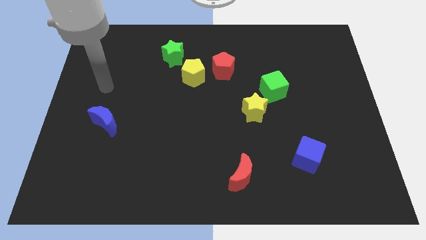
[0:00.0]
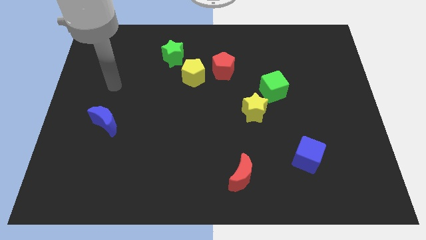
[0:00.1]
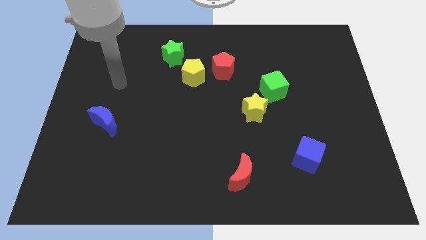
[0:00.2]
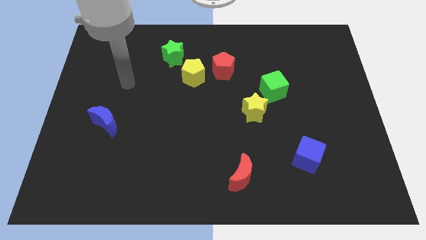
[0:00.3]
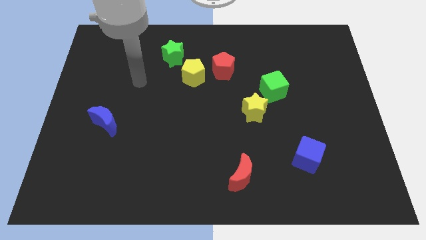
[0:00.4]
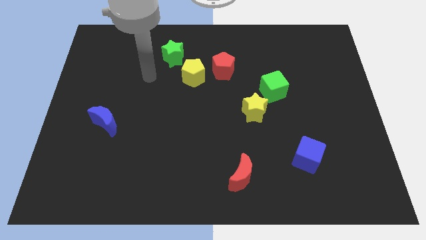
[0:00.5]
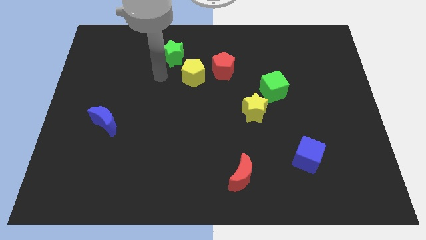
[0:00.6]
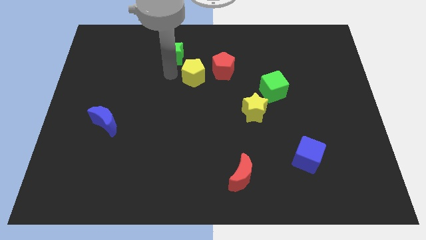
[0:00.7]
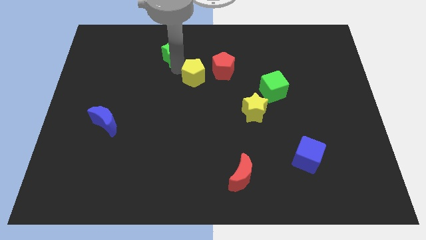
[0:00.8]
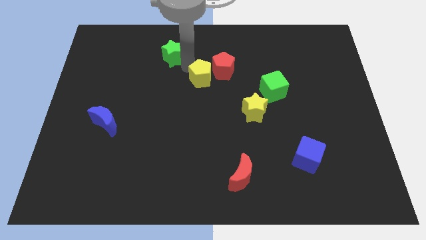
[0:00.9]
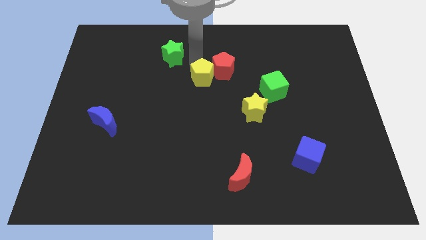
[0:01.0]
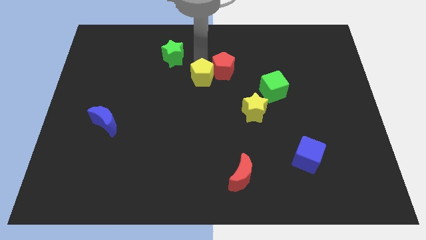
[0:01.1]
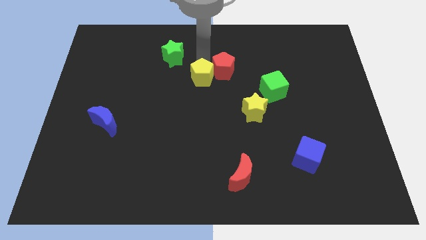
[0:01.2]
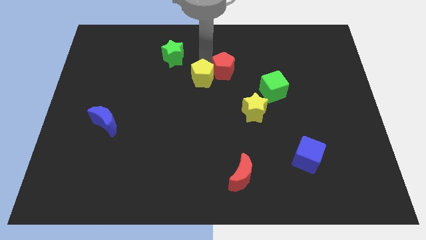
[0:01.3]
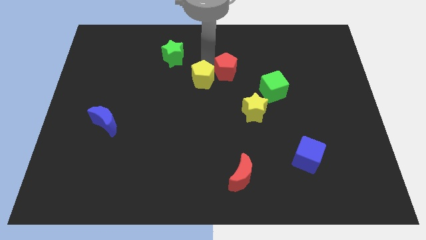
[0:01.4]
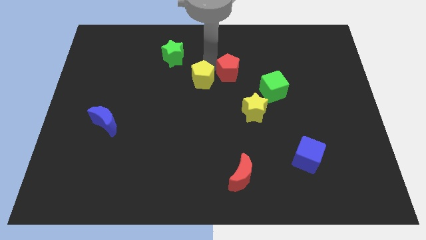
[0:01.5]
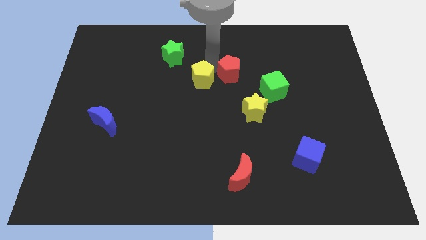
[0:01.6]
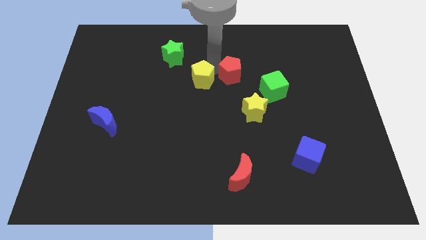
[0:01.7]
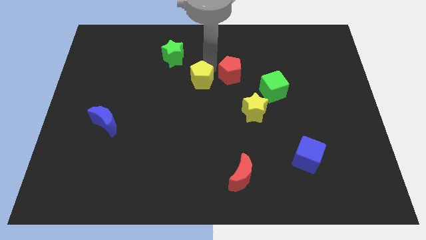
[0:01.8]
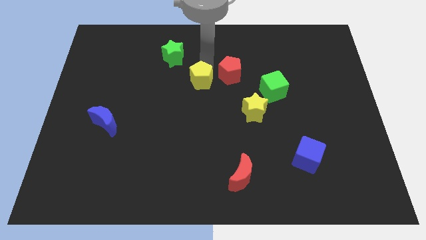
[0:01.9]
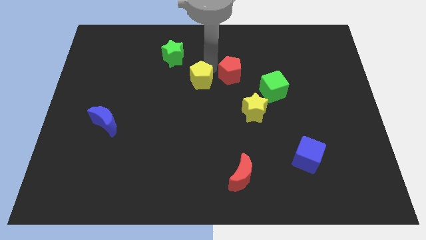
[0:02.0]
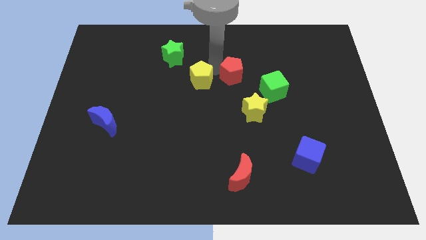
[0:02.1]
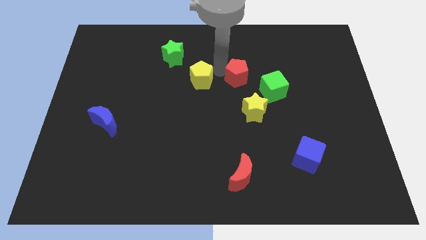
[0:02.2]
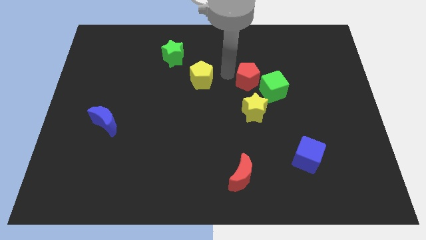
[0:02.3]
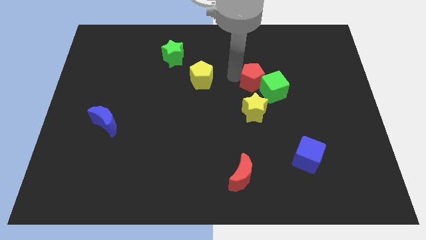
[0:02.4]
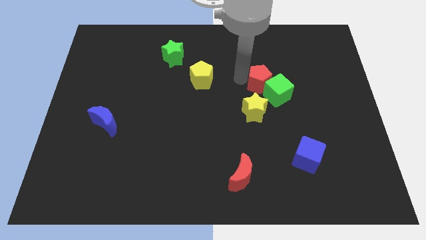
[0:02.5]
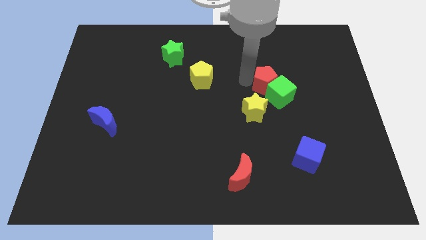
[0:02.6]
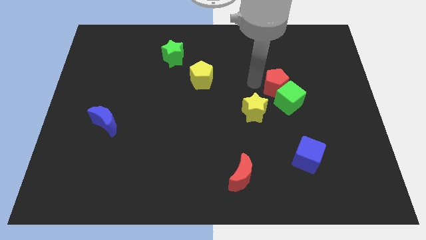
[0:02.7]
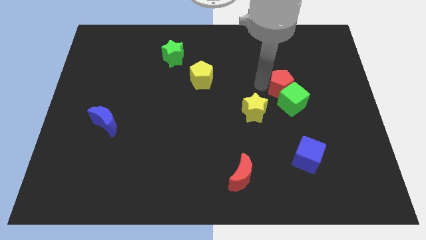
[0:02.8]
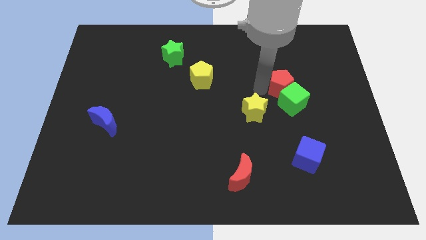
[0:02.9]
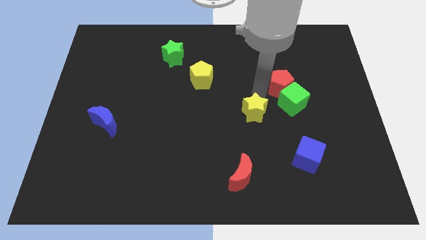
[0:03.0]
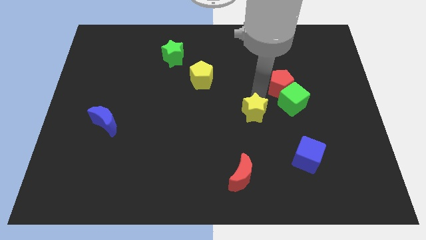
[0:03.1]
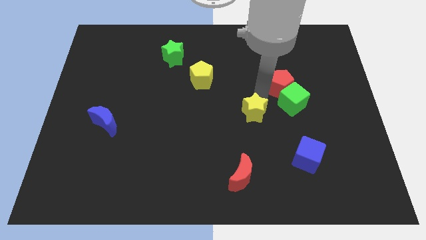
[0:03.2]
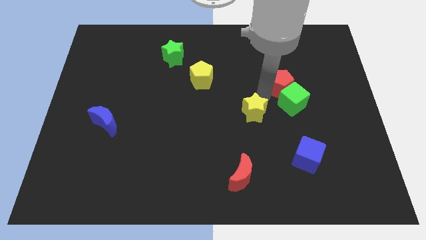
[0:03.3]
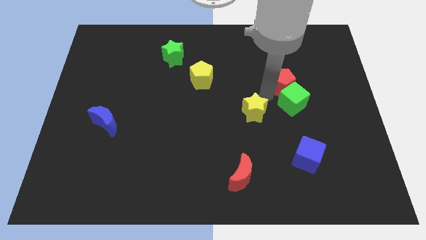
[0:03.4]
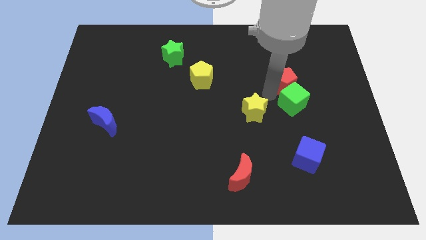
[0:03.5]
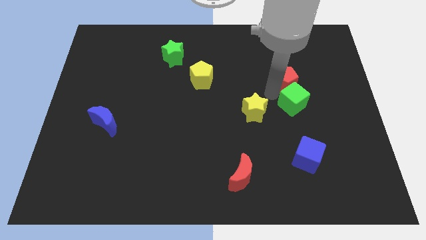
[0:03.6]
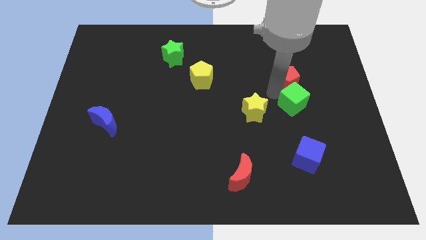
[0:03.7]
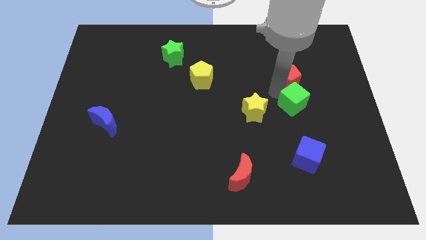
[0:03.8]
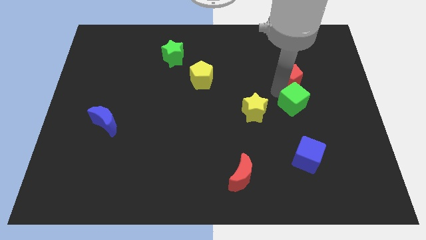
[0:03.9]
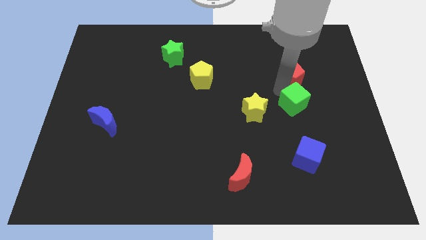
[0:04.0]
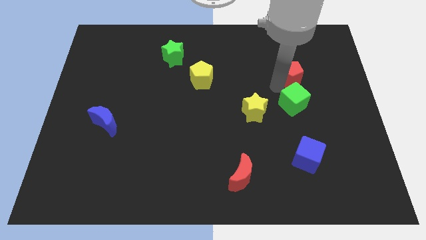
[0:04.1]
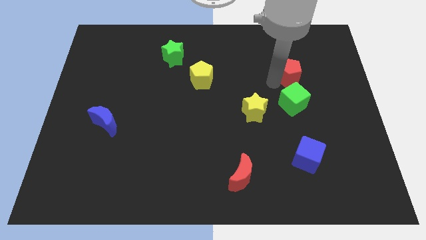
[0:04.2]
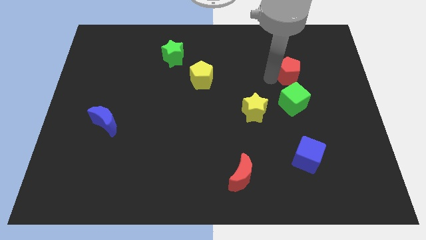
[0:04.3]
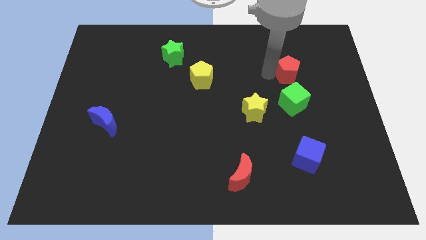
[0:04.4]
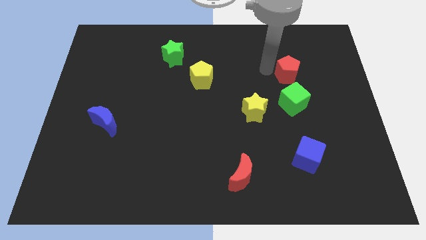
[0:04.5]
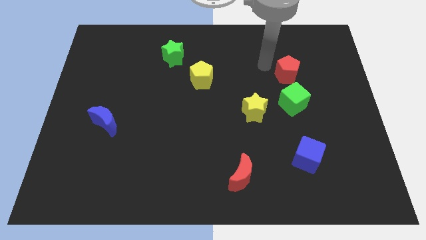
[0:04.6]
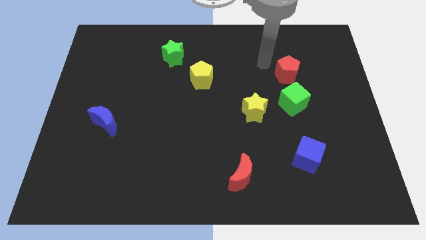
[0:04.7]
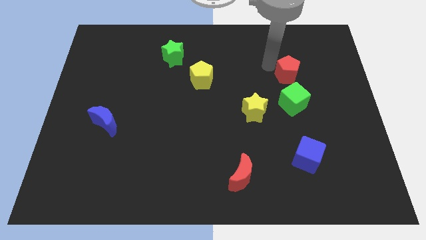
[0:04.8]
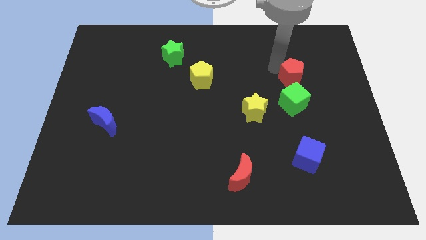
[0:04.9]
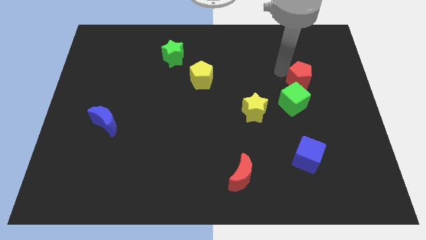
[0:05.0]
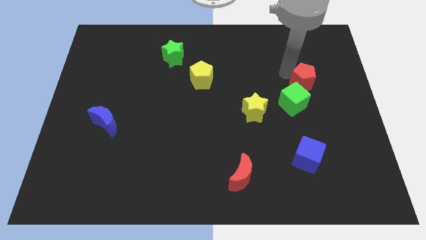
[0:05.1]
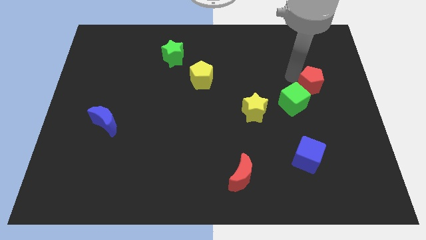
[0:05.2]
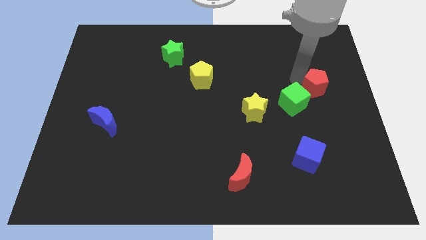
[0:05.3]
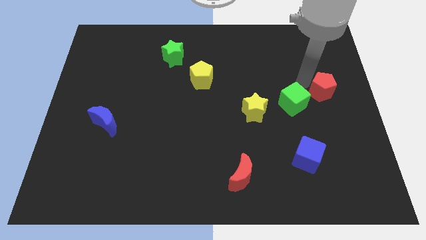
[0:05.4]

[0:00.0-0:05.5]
move the red pentagon to the right side

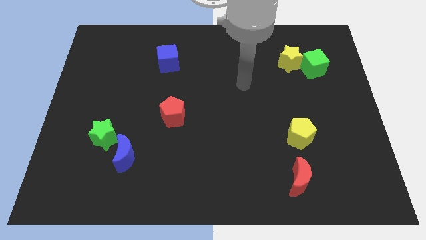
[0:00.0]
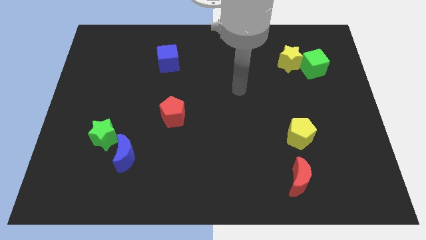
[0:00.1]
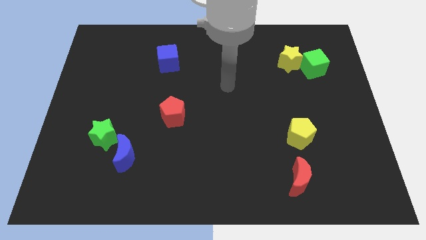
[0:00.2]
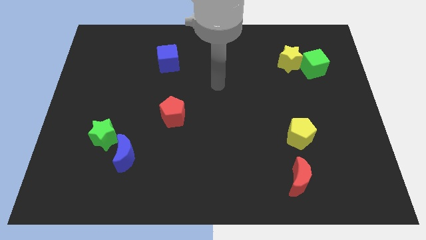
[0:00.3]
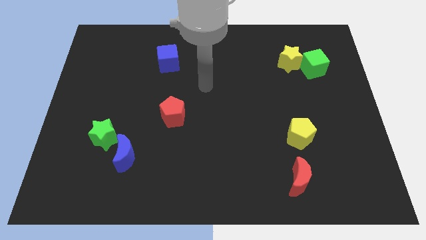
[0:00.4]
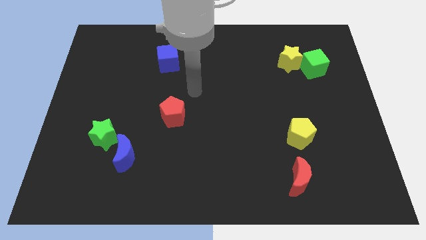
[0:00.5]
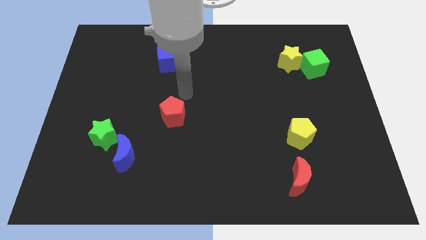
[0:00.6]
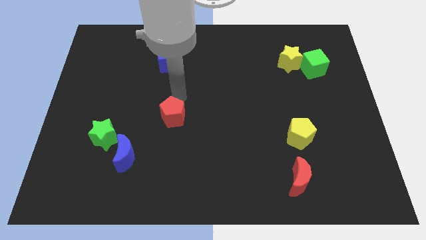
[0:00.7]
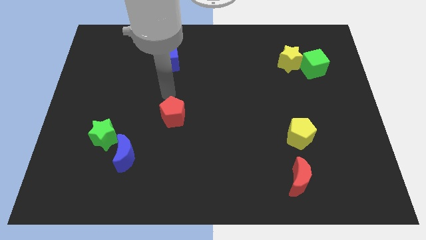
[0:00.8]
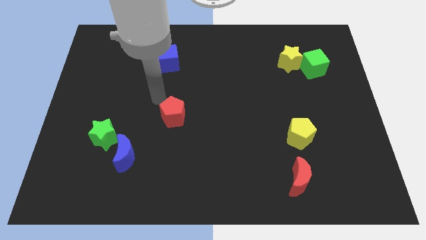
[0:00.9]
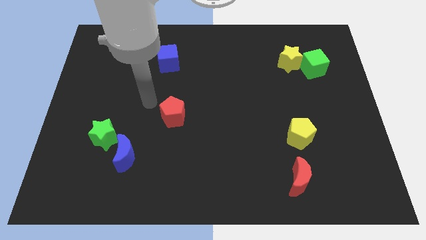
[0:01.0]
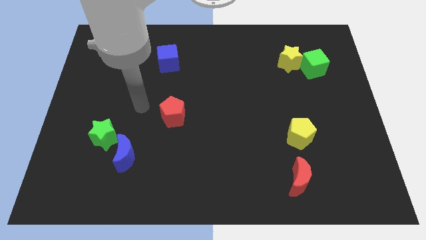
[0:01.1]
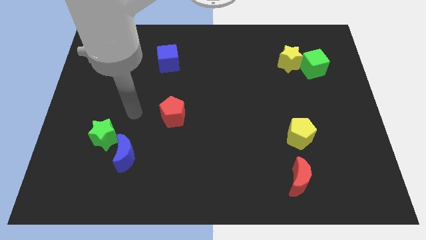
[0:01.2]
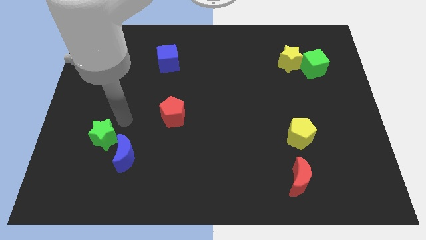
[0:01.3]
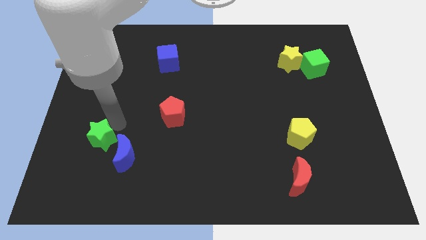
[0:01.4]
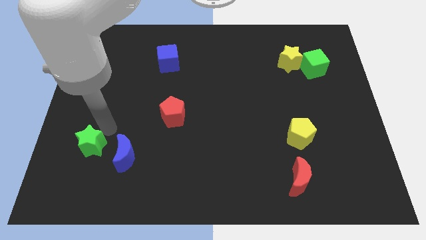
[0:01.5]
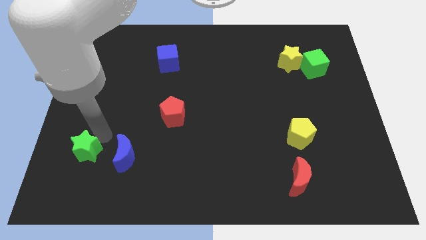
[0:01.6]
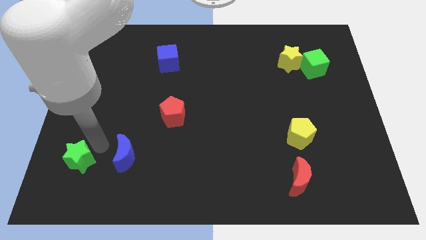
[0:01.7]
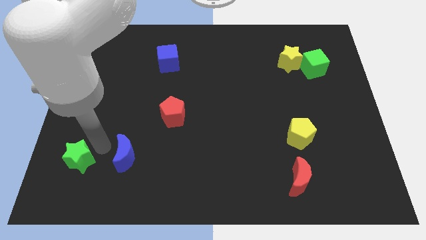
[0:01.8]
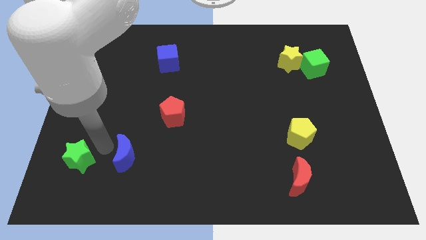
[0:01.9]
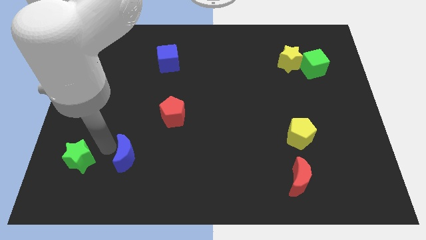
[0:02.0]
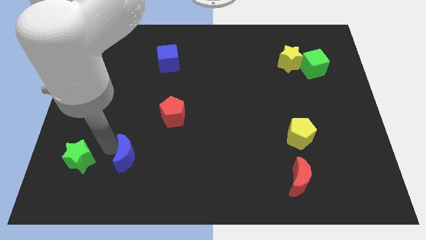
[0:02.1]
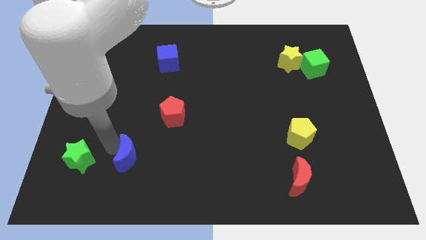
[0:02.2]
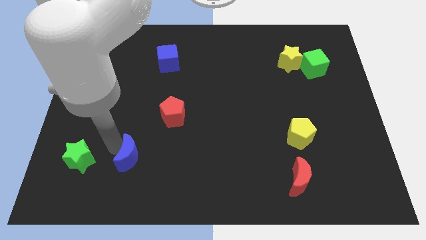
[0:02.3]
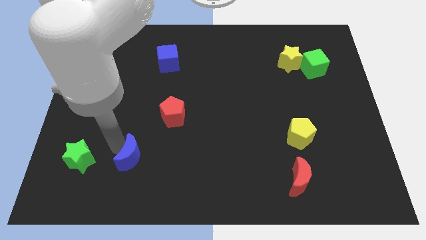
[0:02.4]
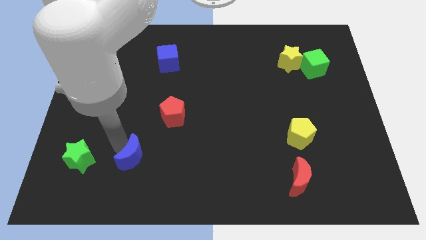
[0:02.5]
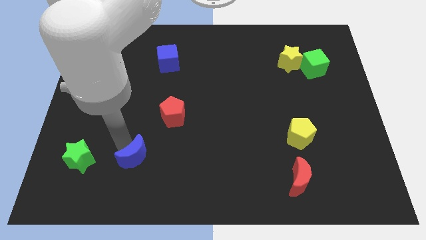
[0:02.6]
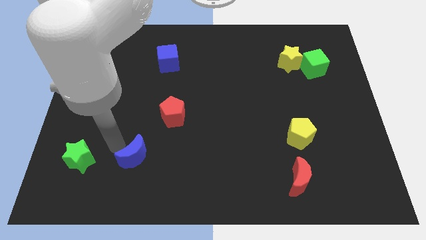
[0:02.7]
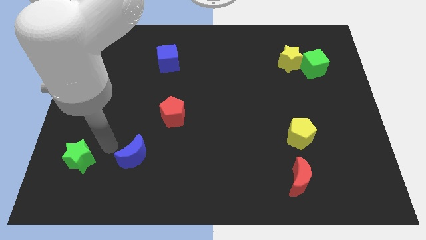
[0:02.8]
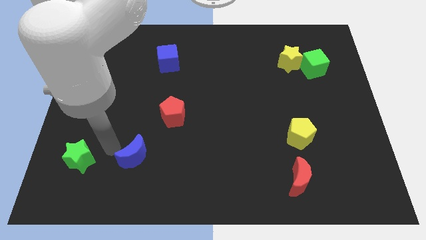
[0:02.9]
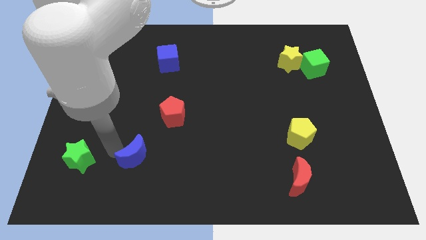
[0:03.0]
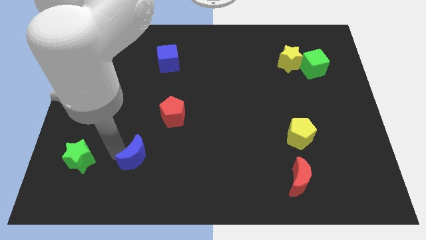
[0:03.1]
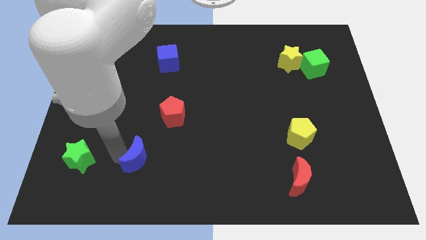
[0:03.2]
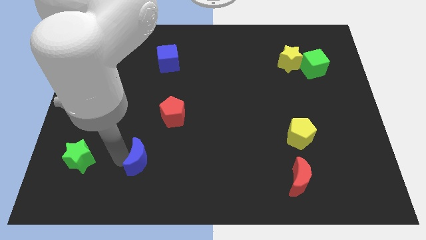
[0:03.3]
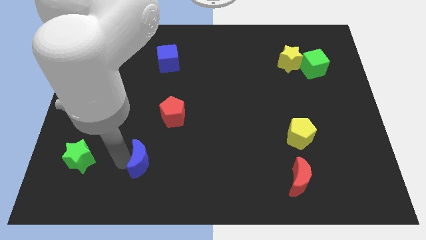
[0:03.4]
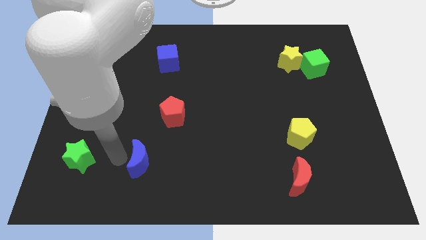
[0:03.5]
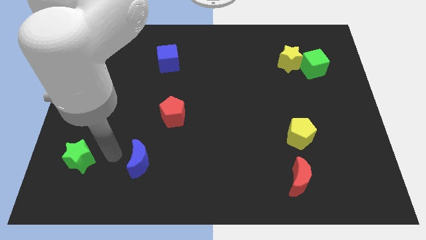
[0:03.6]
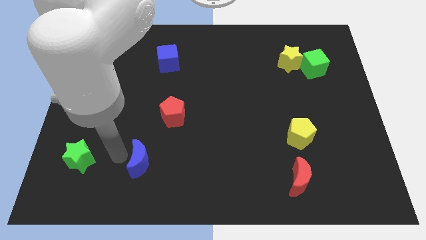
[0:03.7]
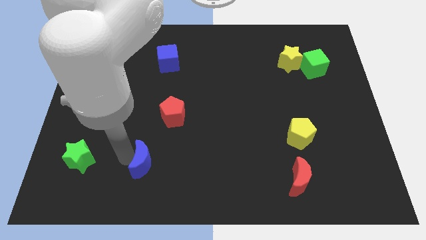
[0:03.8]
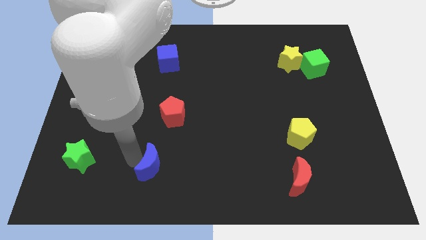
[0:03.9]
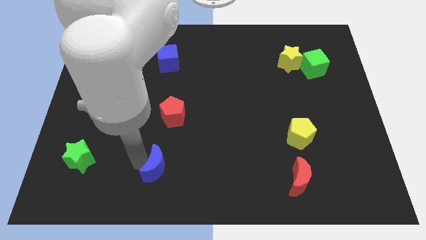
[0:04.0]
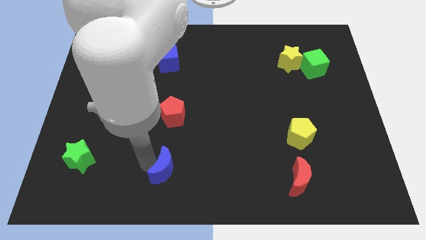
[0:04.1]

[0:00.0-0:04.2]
slide the blue moon to the bottom
